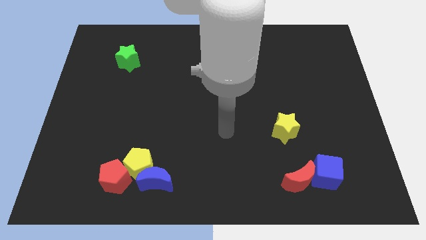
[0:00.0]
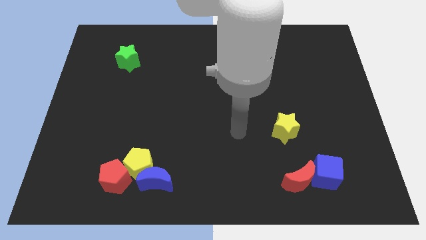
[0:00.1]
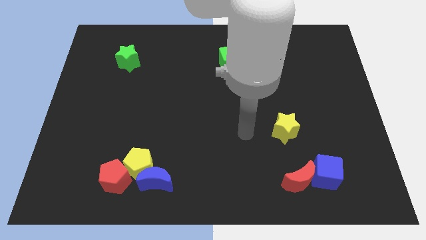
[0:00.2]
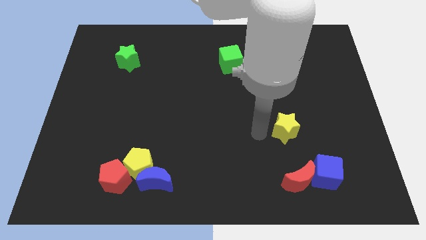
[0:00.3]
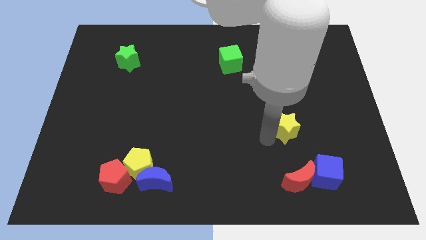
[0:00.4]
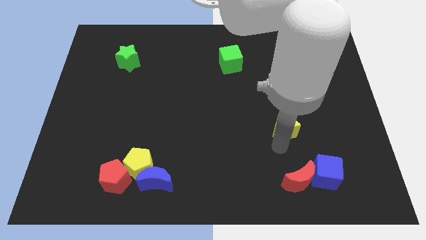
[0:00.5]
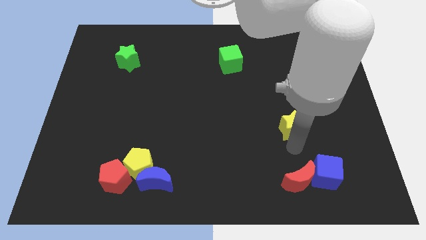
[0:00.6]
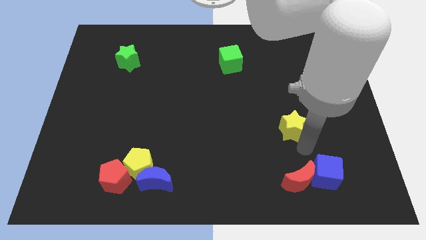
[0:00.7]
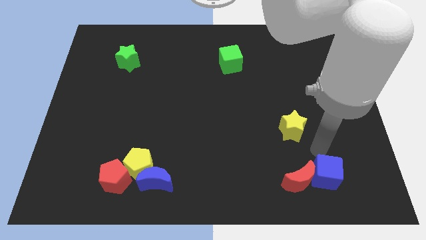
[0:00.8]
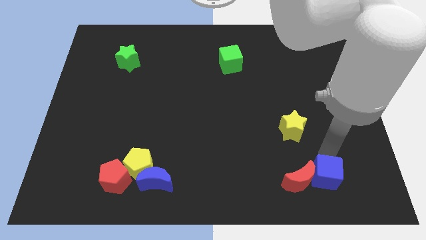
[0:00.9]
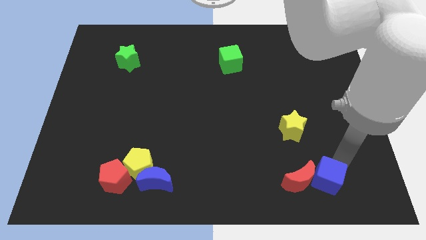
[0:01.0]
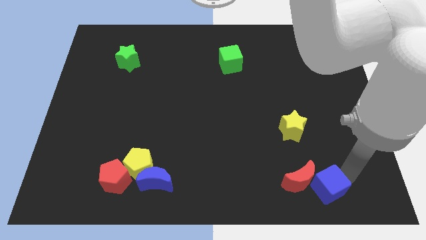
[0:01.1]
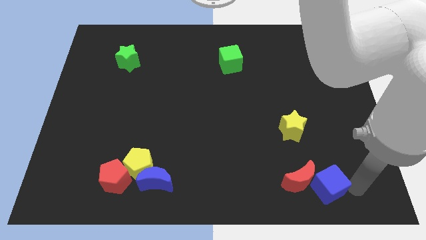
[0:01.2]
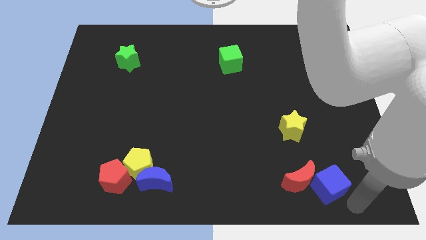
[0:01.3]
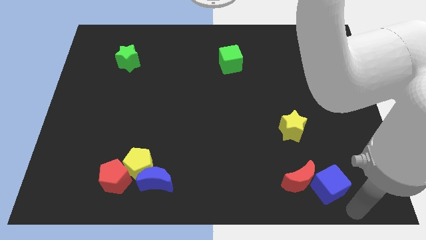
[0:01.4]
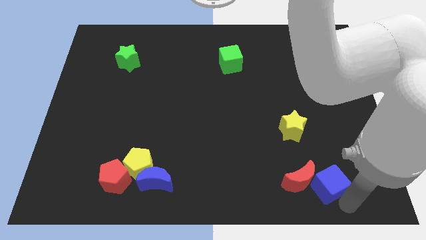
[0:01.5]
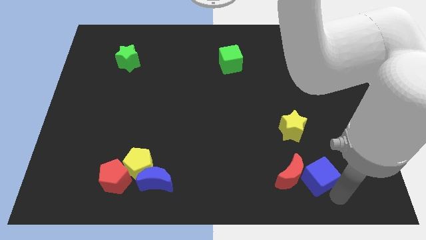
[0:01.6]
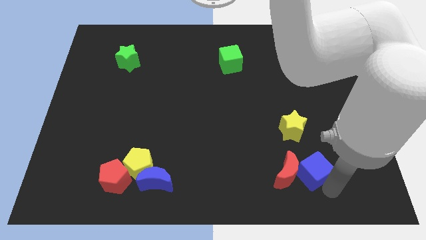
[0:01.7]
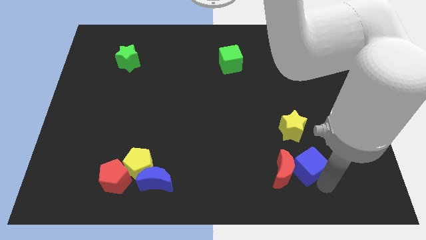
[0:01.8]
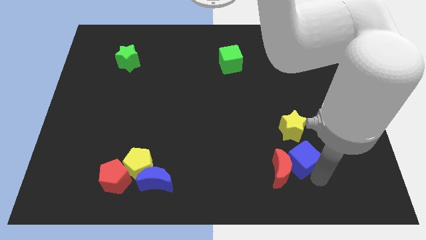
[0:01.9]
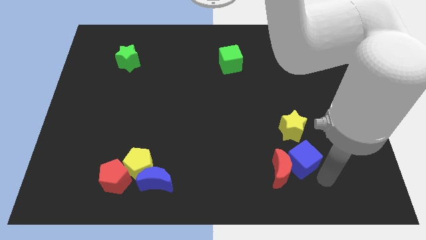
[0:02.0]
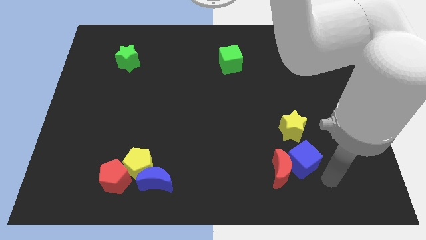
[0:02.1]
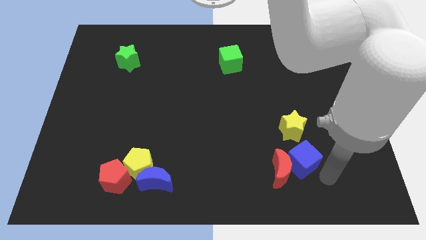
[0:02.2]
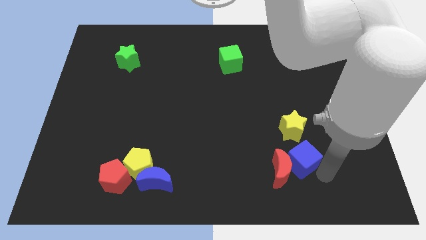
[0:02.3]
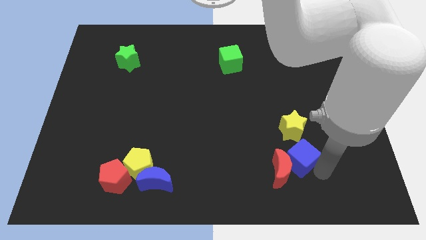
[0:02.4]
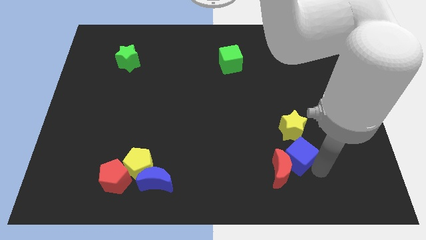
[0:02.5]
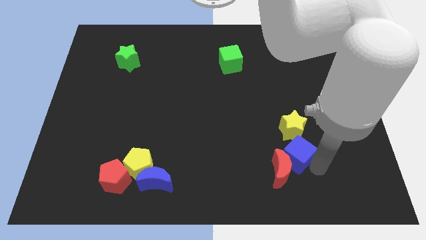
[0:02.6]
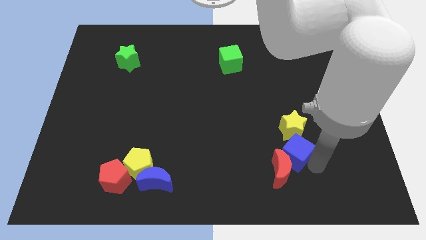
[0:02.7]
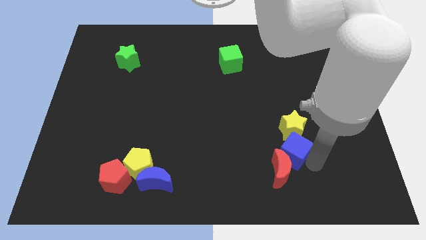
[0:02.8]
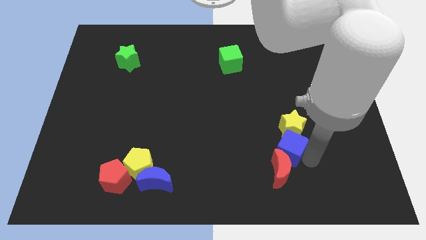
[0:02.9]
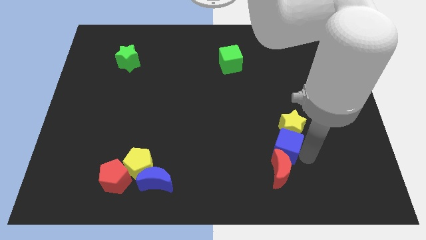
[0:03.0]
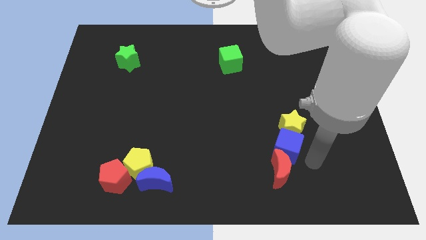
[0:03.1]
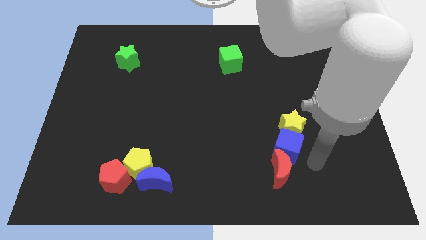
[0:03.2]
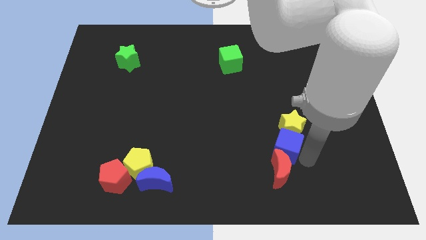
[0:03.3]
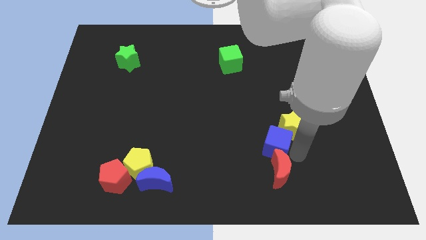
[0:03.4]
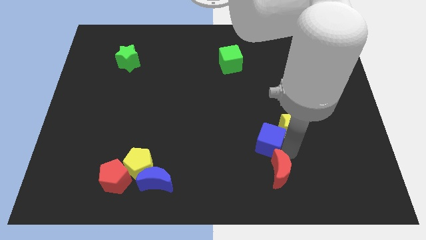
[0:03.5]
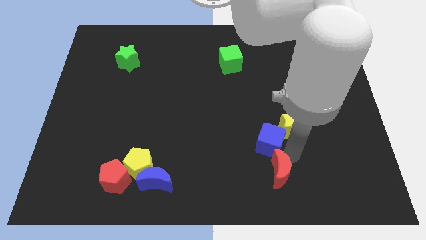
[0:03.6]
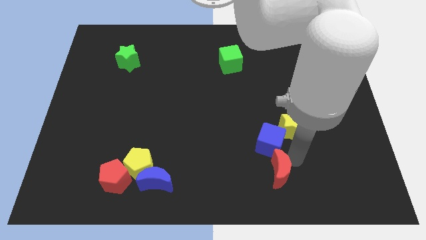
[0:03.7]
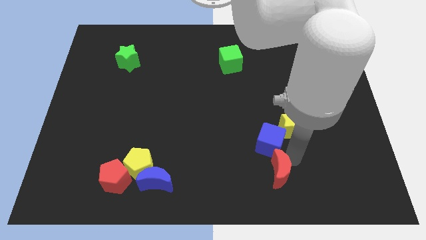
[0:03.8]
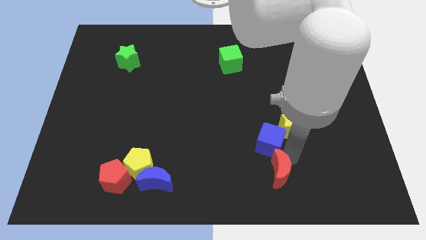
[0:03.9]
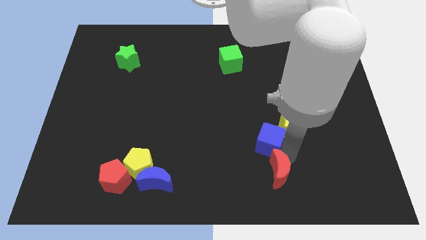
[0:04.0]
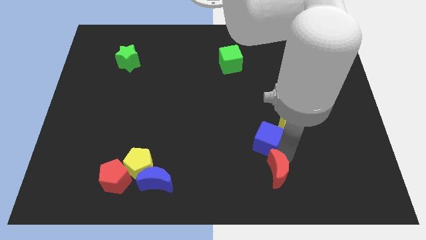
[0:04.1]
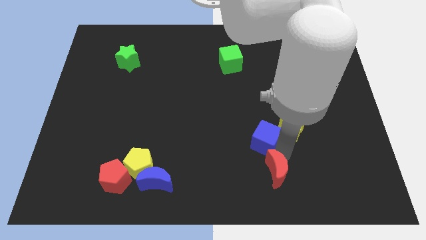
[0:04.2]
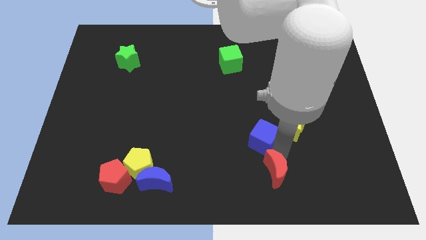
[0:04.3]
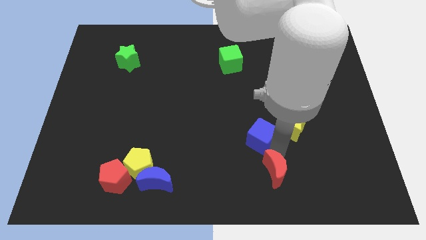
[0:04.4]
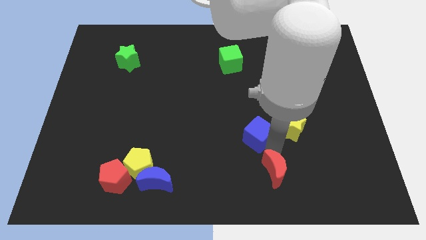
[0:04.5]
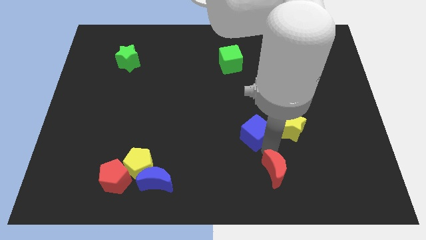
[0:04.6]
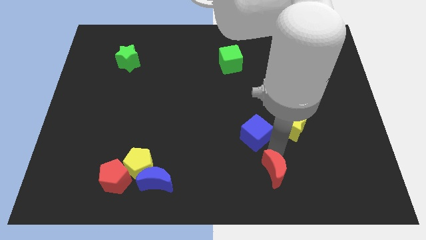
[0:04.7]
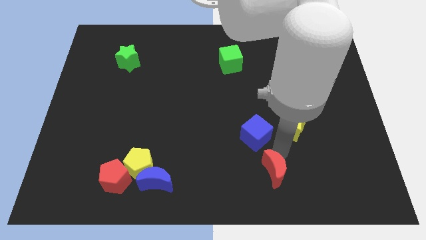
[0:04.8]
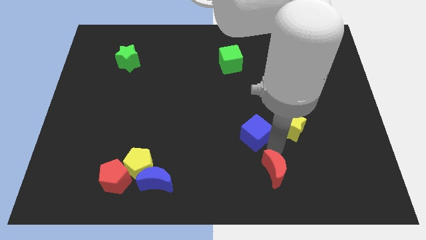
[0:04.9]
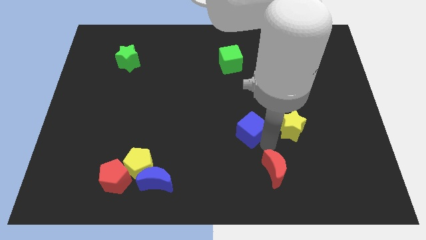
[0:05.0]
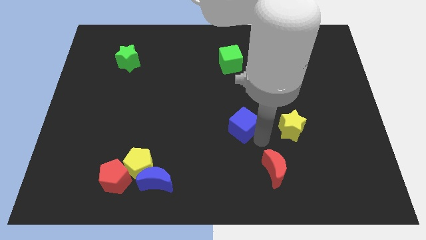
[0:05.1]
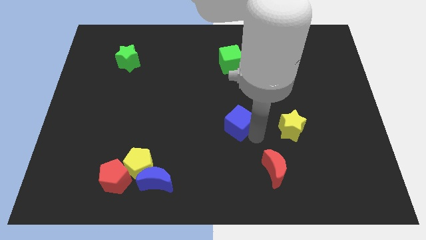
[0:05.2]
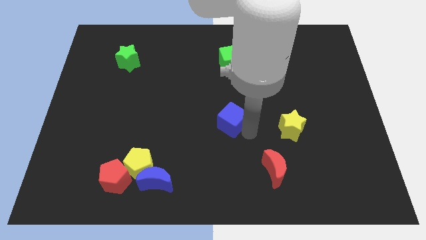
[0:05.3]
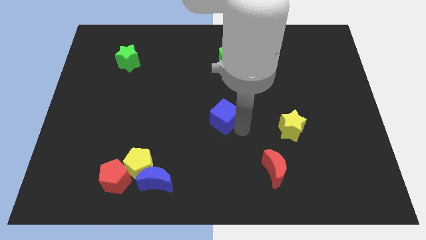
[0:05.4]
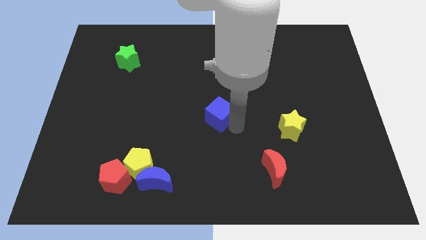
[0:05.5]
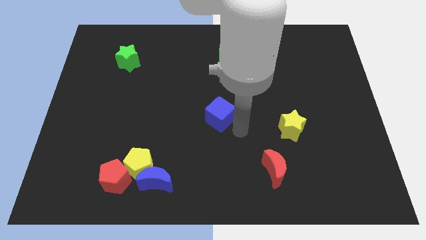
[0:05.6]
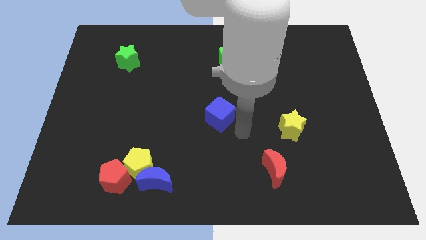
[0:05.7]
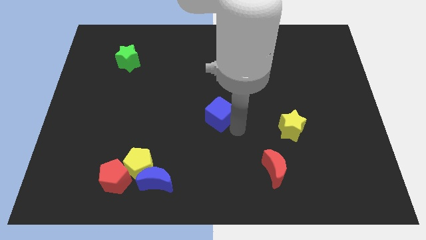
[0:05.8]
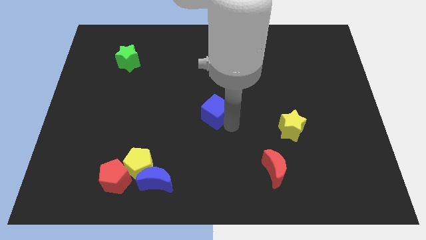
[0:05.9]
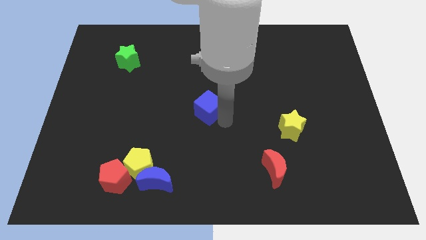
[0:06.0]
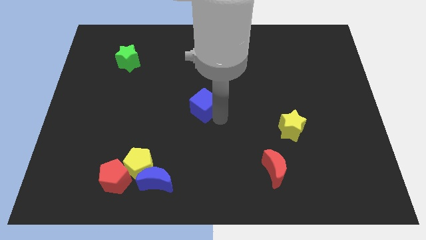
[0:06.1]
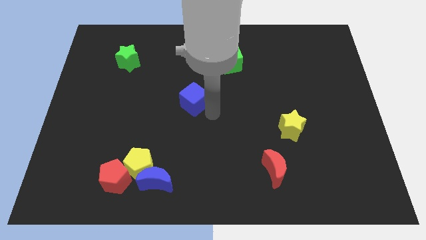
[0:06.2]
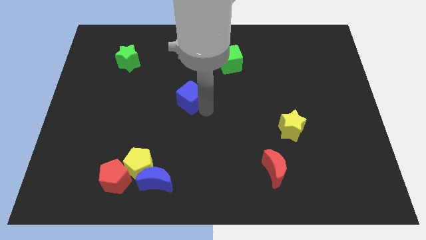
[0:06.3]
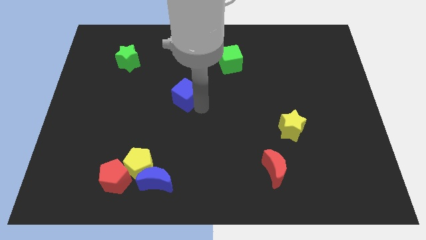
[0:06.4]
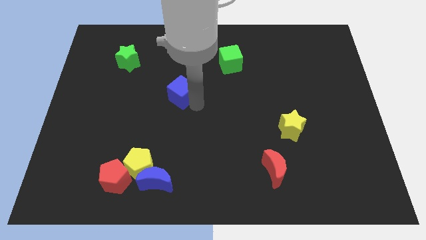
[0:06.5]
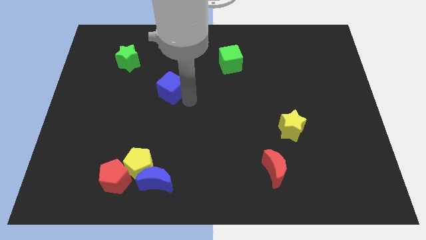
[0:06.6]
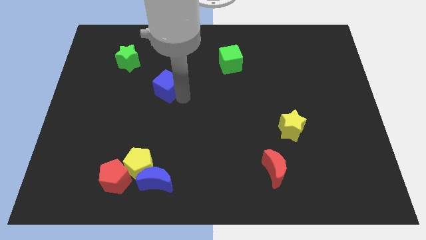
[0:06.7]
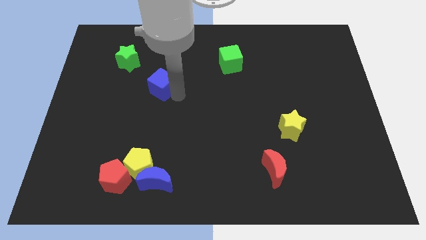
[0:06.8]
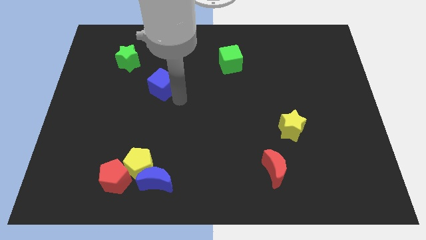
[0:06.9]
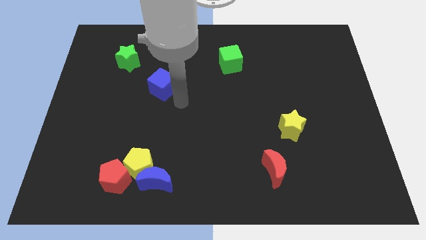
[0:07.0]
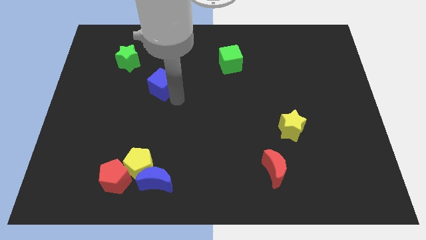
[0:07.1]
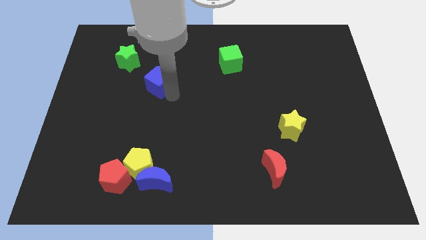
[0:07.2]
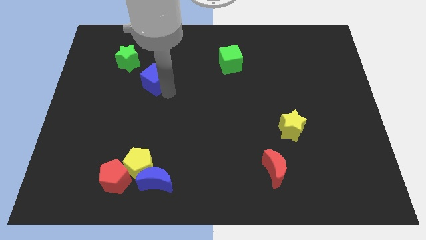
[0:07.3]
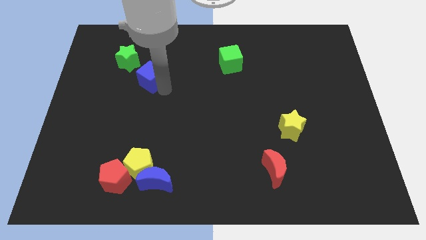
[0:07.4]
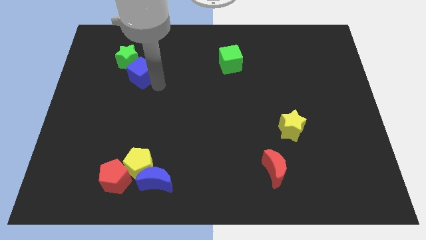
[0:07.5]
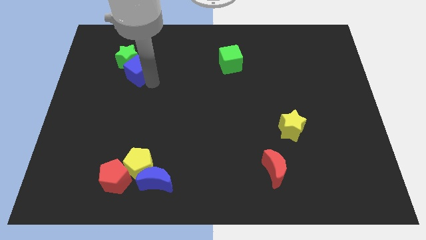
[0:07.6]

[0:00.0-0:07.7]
slide the blue cube towards the green star
